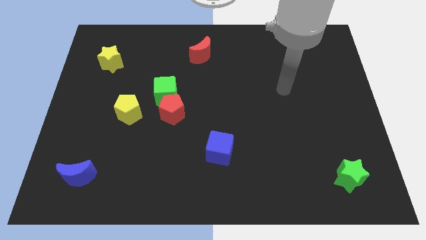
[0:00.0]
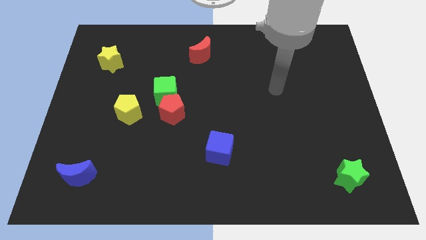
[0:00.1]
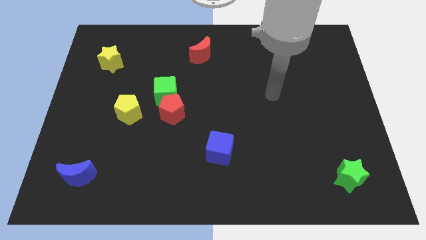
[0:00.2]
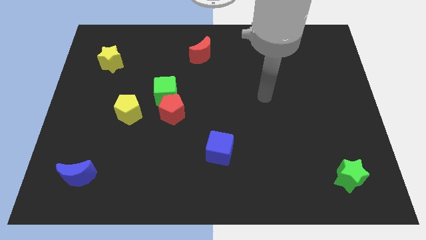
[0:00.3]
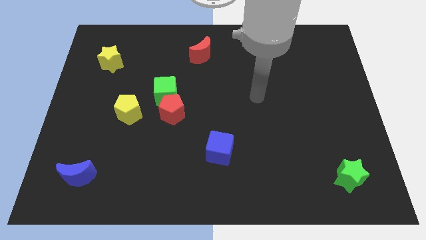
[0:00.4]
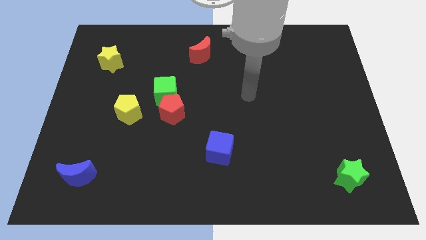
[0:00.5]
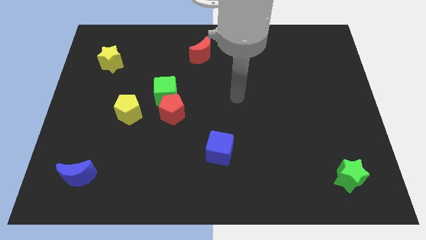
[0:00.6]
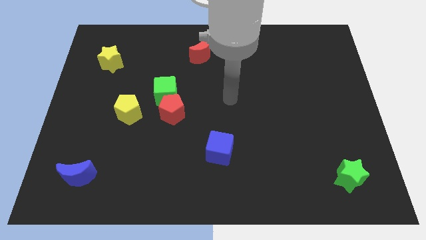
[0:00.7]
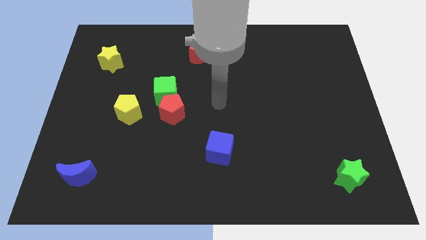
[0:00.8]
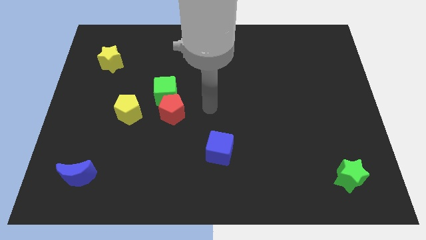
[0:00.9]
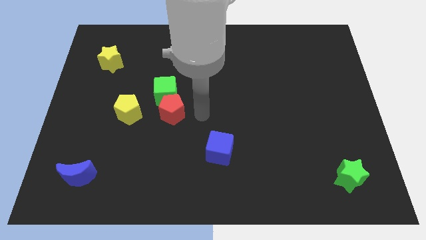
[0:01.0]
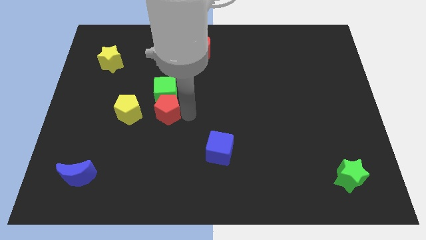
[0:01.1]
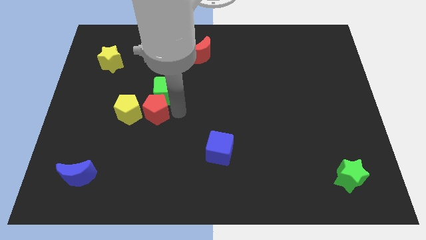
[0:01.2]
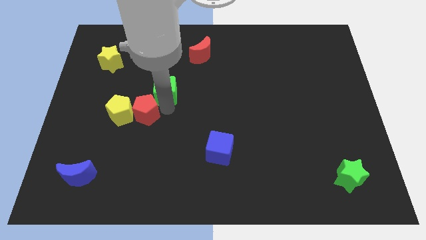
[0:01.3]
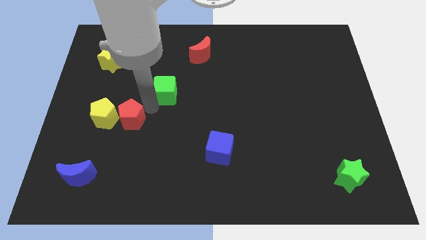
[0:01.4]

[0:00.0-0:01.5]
pull the green cube apart from the red pentagon and yellow pentagon

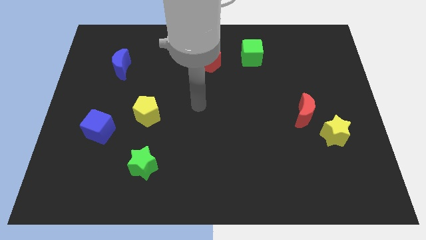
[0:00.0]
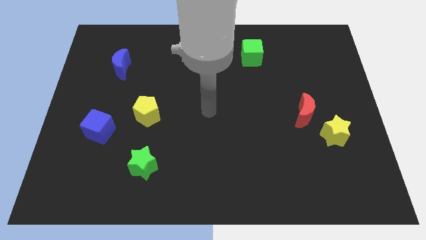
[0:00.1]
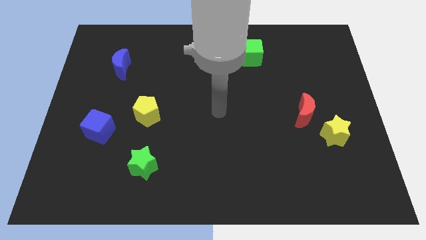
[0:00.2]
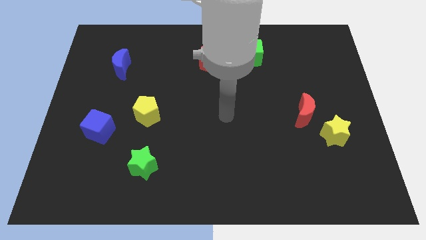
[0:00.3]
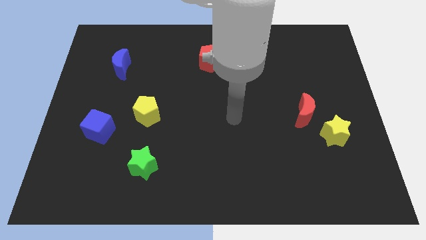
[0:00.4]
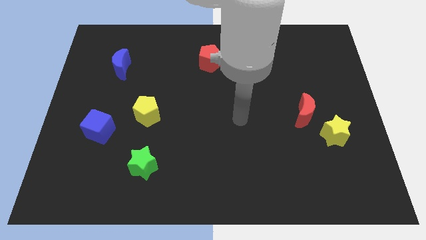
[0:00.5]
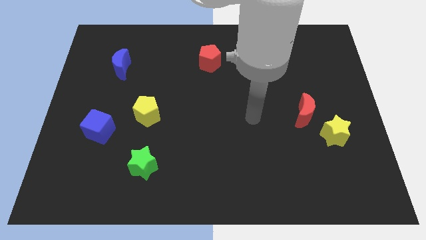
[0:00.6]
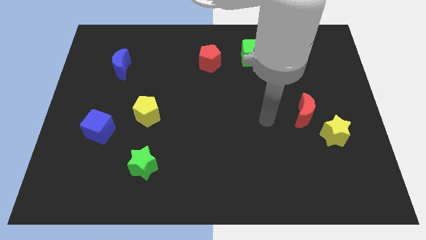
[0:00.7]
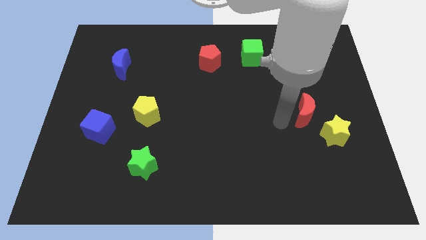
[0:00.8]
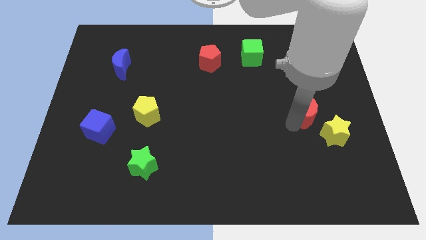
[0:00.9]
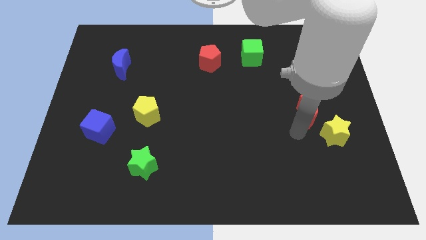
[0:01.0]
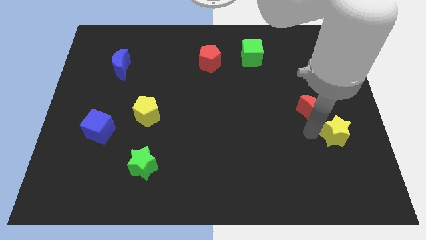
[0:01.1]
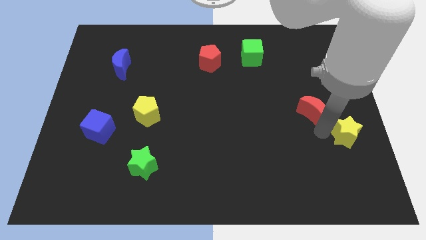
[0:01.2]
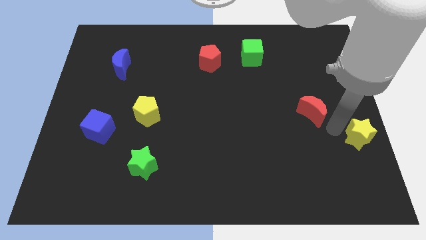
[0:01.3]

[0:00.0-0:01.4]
separate the red moon from the yellow star

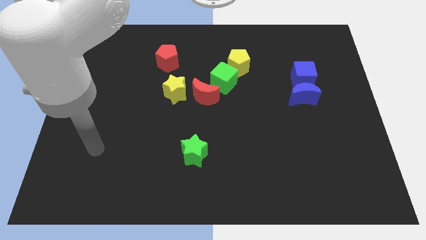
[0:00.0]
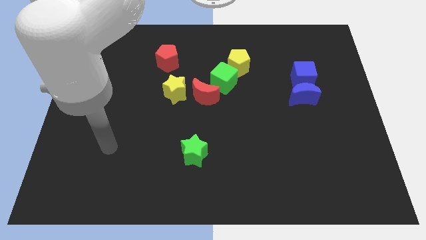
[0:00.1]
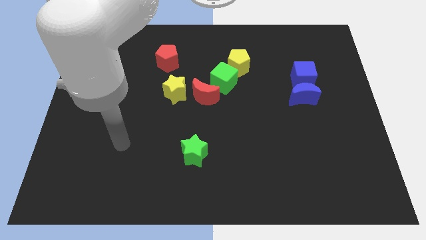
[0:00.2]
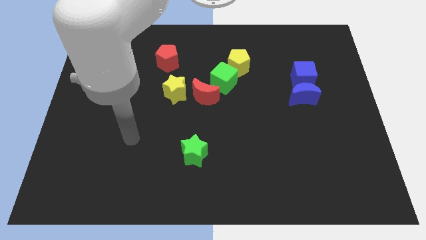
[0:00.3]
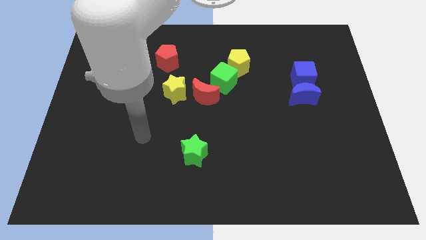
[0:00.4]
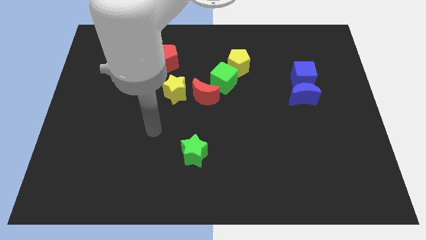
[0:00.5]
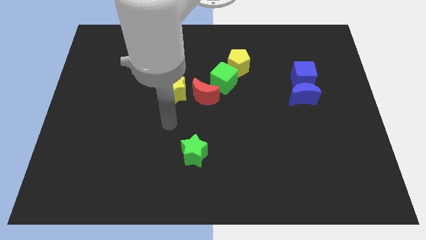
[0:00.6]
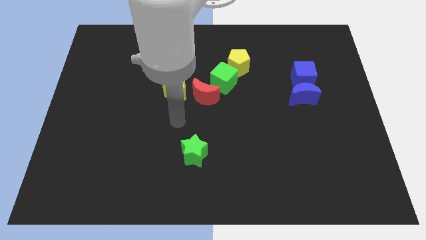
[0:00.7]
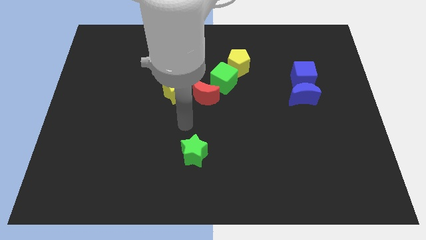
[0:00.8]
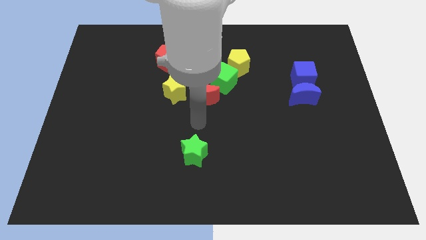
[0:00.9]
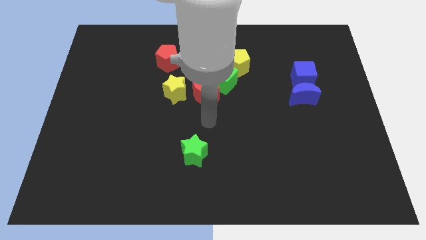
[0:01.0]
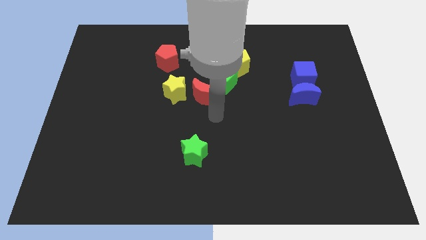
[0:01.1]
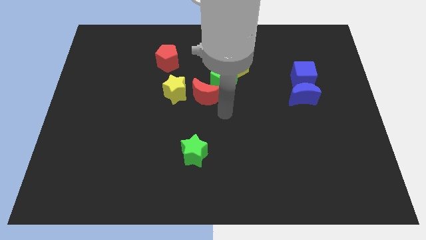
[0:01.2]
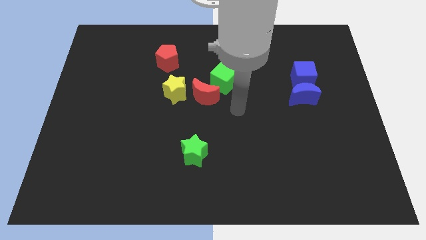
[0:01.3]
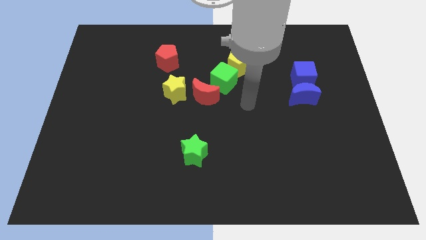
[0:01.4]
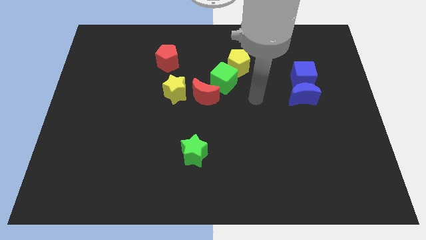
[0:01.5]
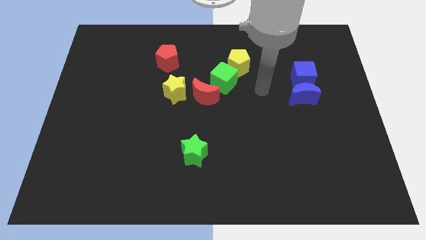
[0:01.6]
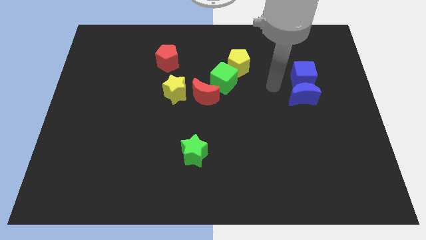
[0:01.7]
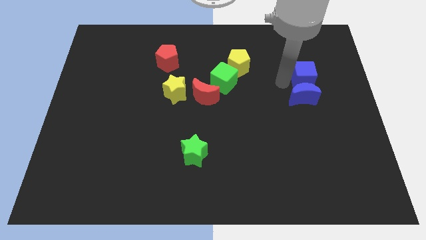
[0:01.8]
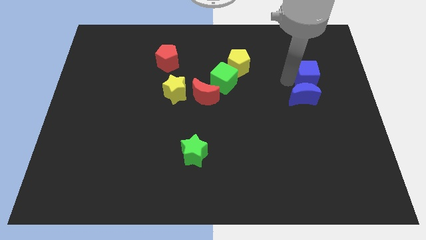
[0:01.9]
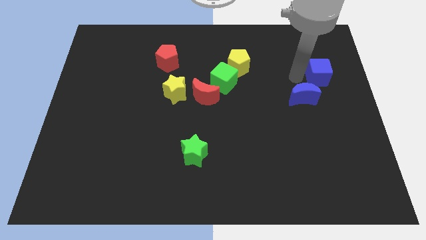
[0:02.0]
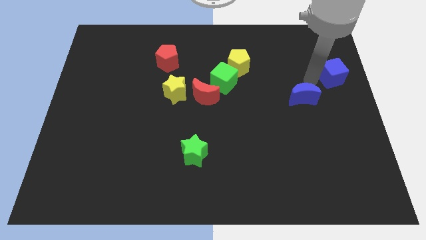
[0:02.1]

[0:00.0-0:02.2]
separate the blue moon from the blue cube

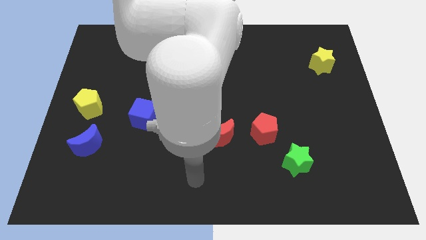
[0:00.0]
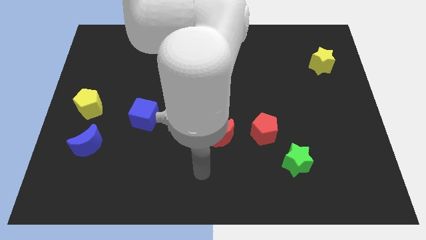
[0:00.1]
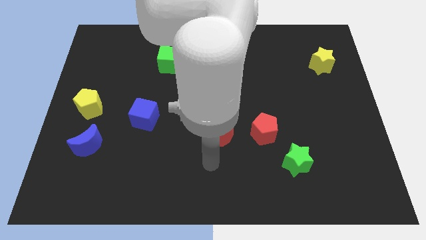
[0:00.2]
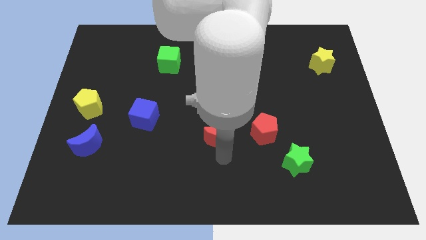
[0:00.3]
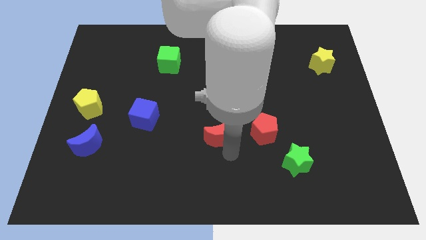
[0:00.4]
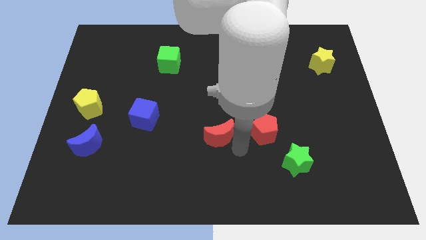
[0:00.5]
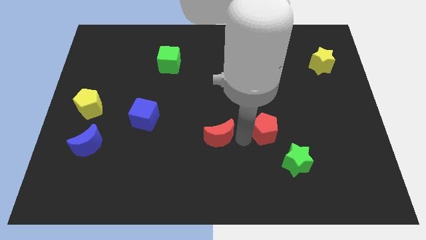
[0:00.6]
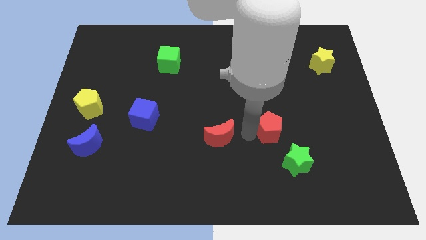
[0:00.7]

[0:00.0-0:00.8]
move the red moon away from the red pentagon

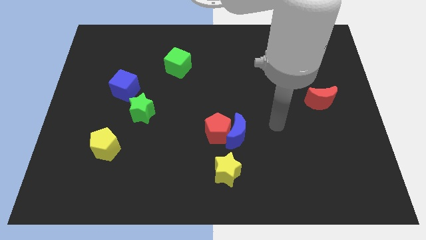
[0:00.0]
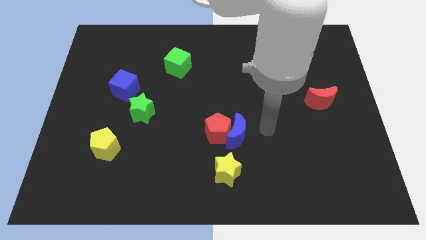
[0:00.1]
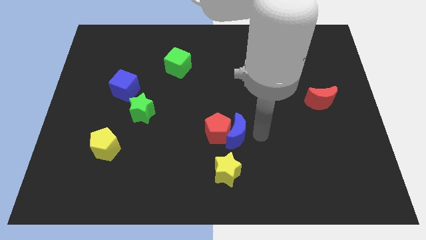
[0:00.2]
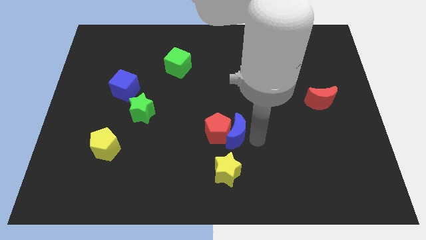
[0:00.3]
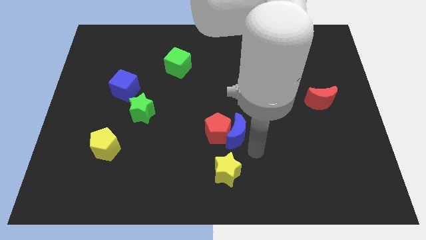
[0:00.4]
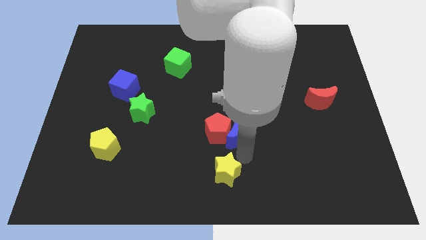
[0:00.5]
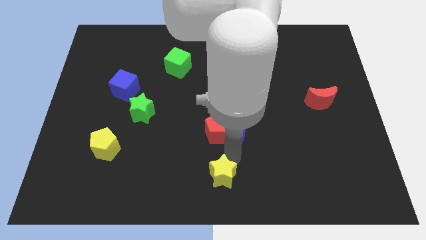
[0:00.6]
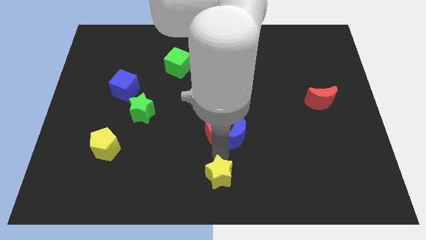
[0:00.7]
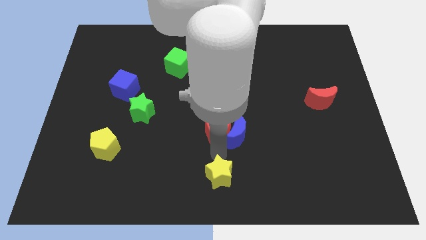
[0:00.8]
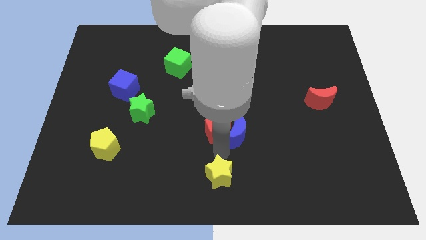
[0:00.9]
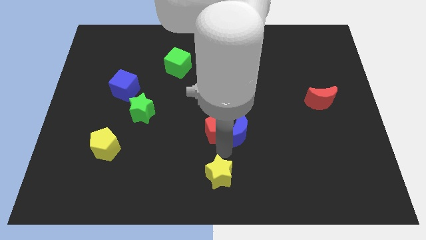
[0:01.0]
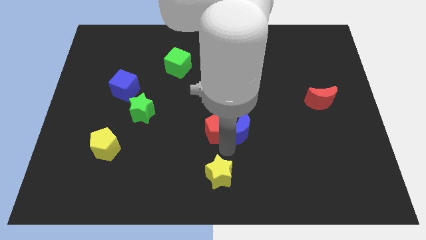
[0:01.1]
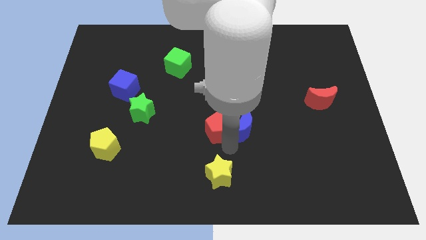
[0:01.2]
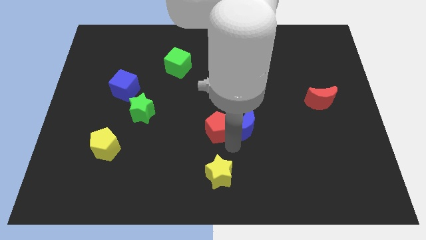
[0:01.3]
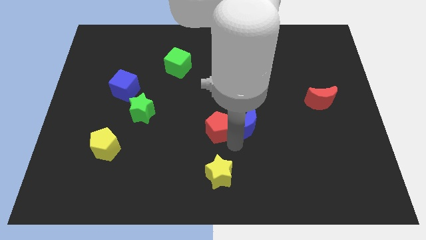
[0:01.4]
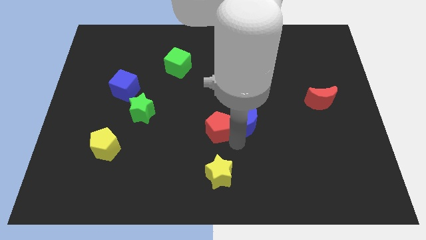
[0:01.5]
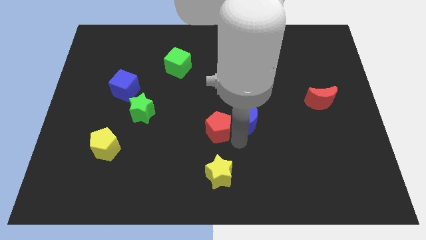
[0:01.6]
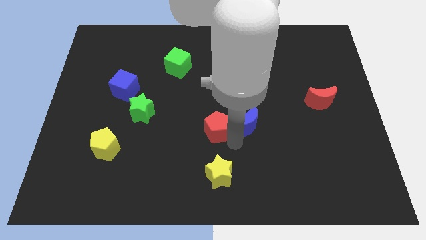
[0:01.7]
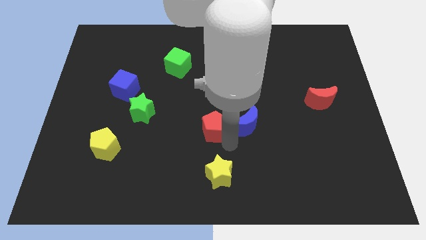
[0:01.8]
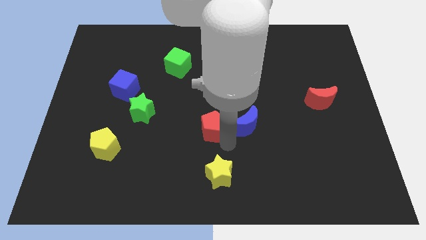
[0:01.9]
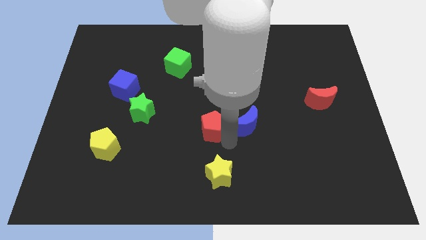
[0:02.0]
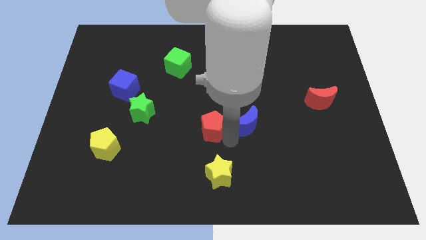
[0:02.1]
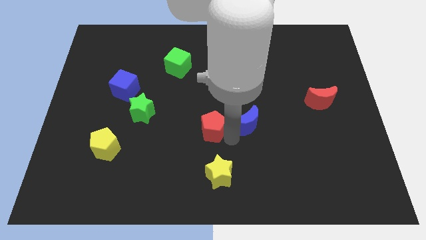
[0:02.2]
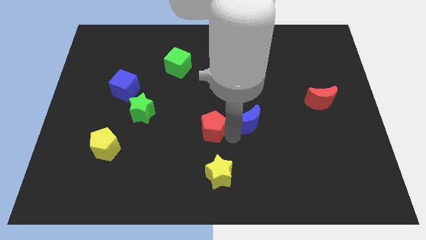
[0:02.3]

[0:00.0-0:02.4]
move the blue moon away from the red pentagon and yellow star

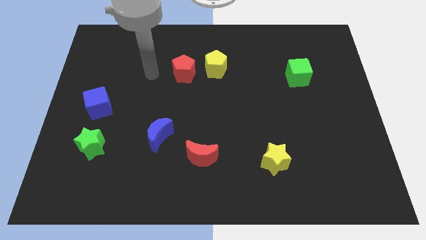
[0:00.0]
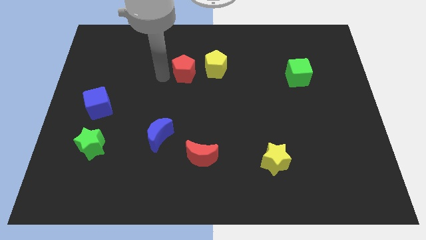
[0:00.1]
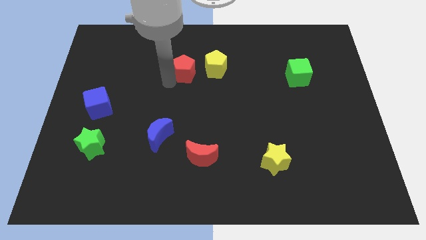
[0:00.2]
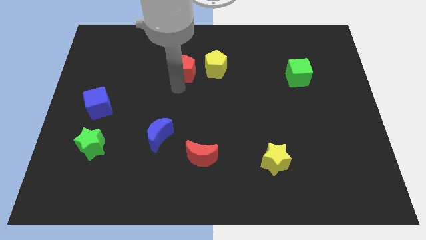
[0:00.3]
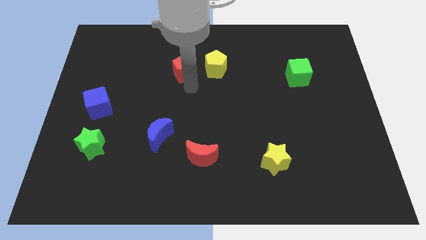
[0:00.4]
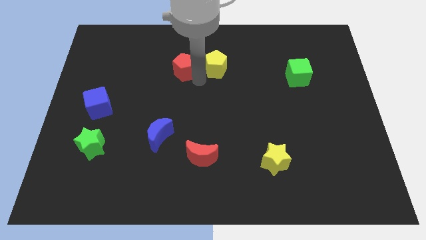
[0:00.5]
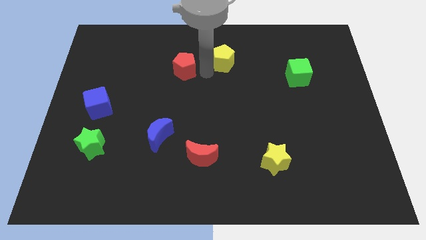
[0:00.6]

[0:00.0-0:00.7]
separate the red pentagon from the yellow pentagon

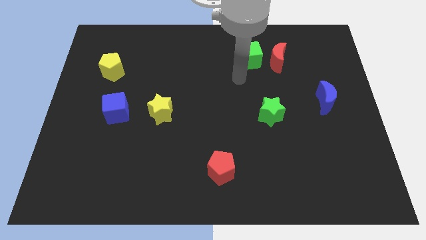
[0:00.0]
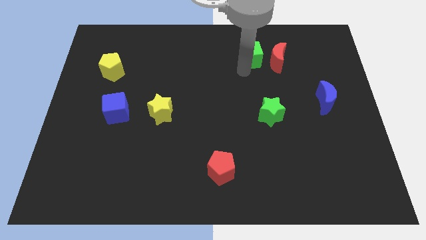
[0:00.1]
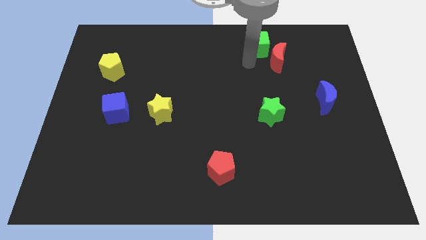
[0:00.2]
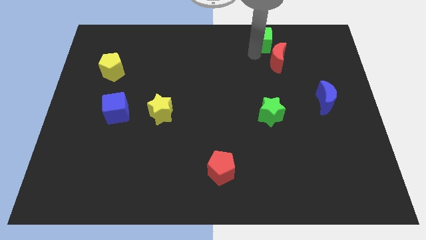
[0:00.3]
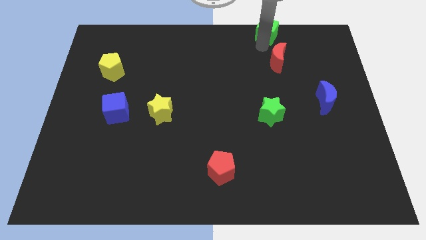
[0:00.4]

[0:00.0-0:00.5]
pull the red moon apart from the green cube
